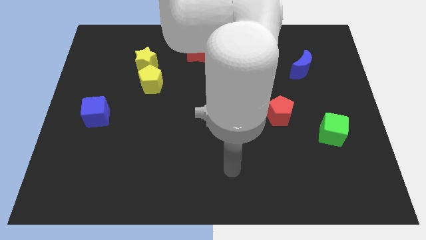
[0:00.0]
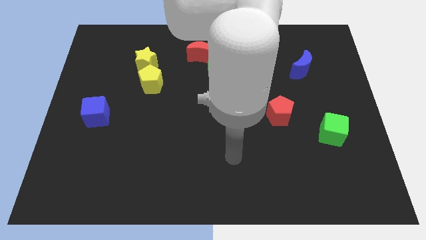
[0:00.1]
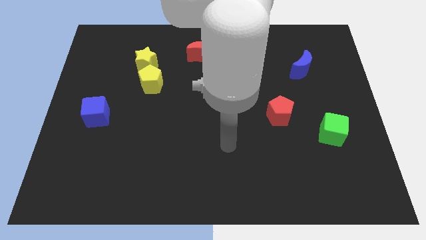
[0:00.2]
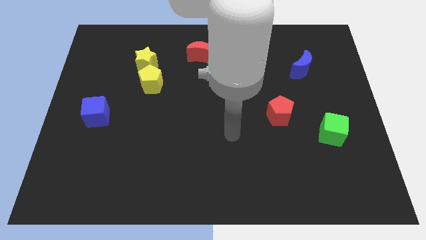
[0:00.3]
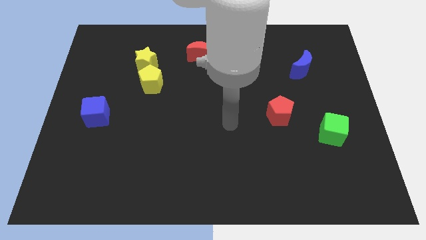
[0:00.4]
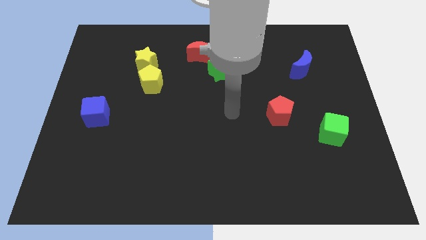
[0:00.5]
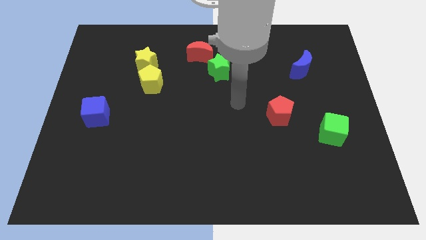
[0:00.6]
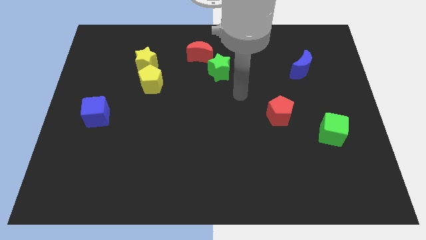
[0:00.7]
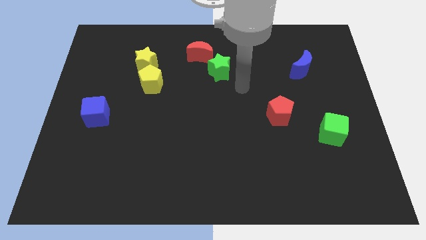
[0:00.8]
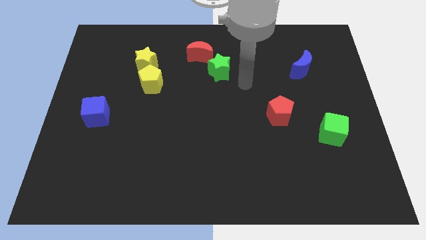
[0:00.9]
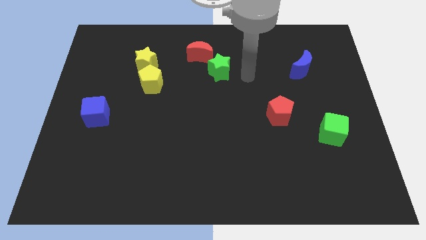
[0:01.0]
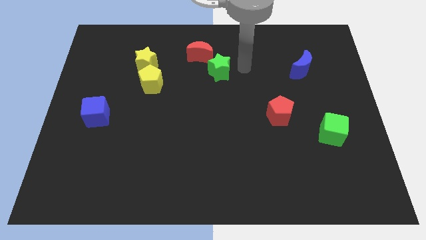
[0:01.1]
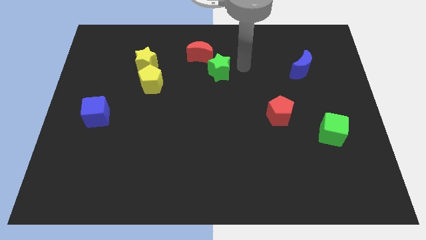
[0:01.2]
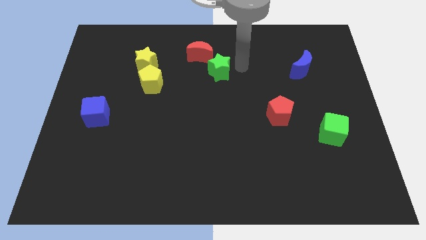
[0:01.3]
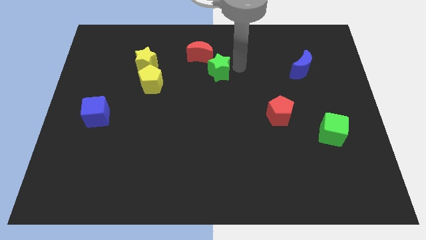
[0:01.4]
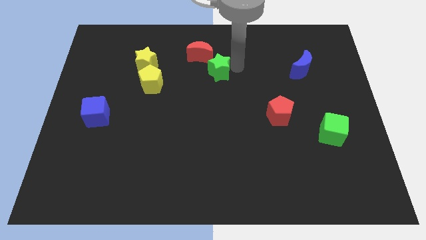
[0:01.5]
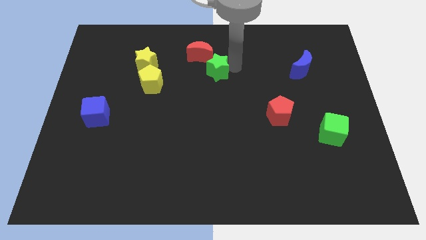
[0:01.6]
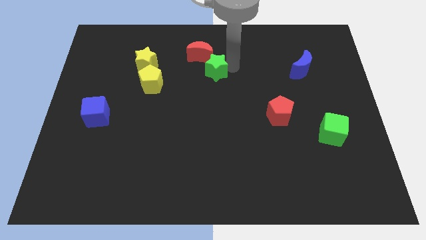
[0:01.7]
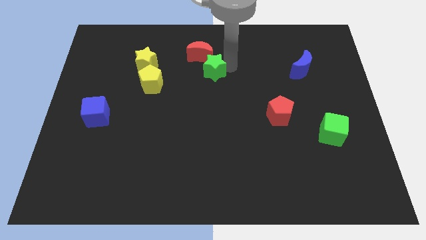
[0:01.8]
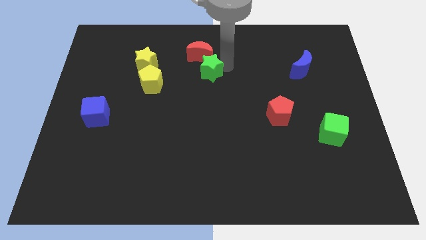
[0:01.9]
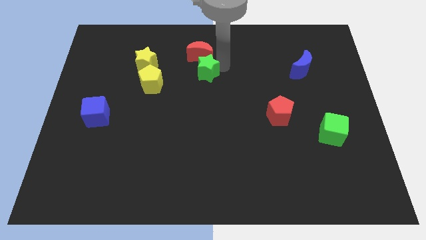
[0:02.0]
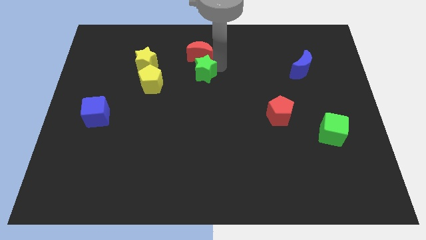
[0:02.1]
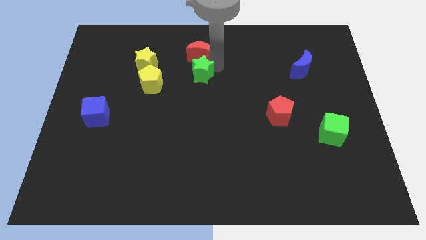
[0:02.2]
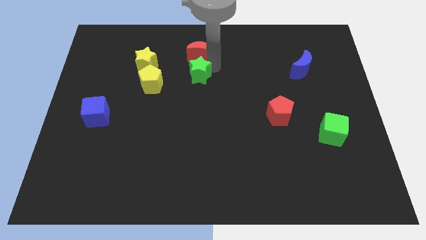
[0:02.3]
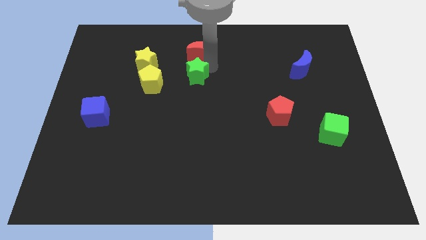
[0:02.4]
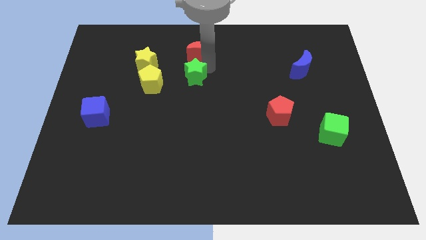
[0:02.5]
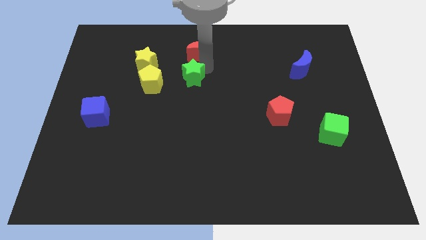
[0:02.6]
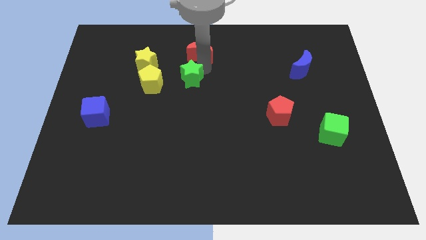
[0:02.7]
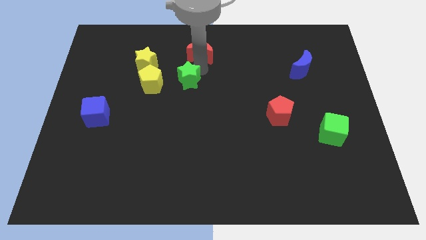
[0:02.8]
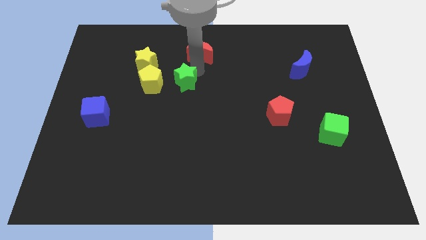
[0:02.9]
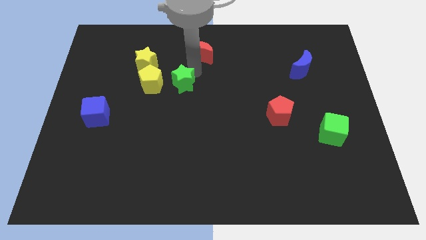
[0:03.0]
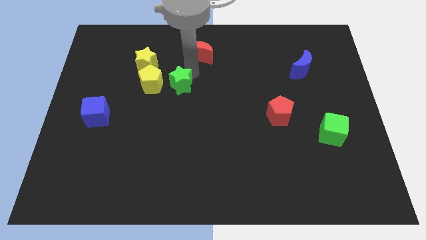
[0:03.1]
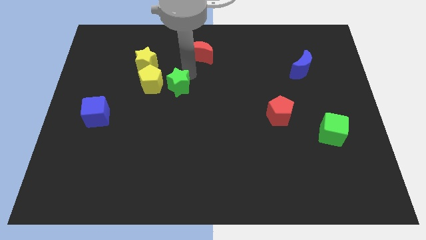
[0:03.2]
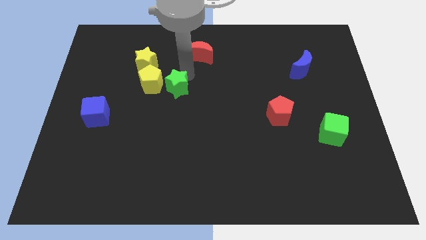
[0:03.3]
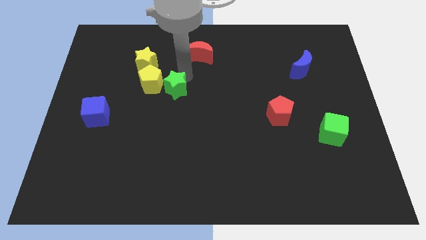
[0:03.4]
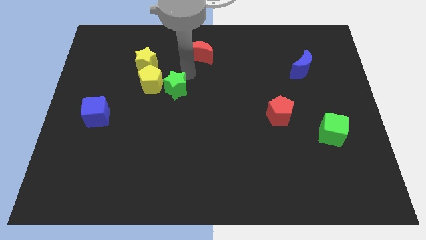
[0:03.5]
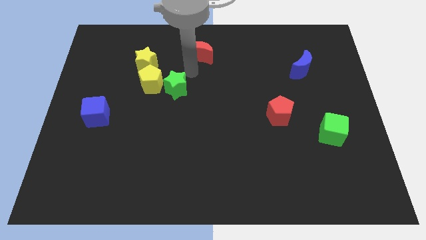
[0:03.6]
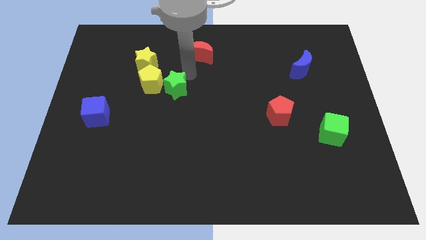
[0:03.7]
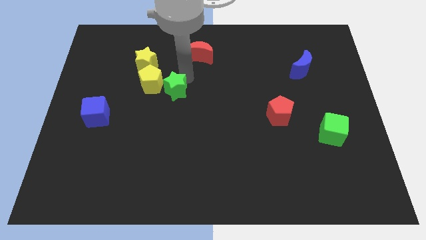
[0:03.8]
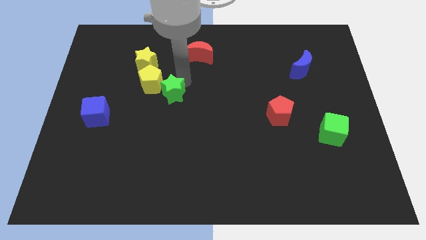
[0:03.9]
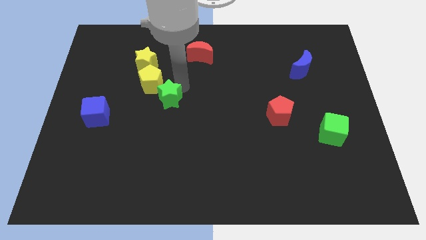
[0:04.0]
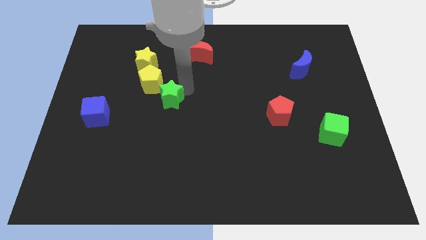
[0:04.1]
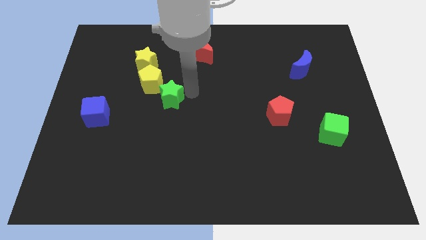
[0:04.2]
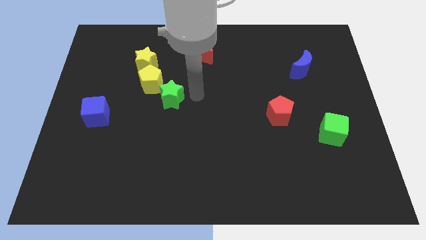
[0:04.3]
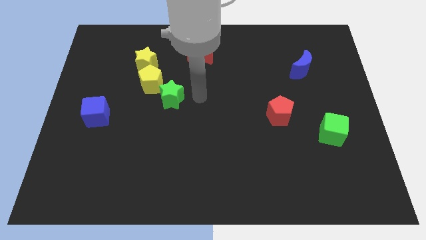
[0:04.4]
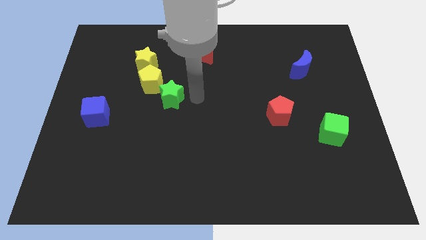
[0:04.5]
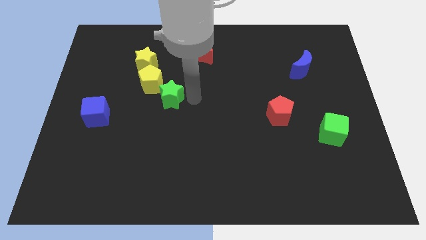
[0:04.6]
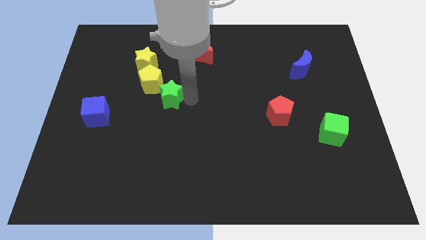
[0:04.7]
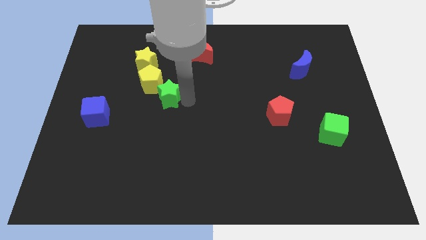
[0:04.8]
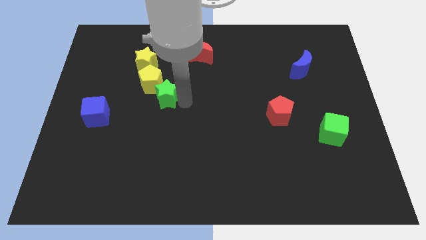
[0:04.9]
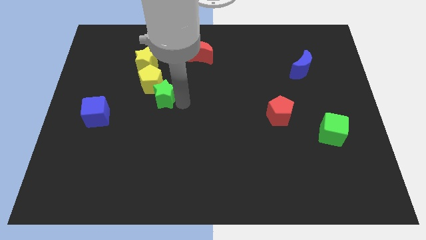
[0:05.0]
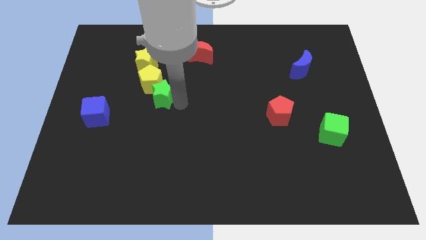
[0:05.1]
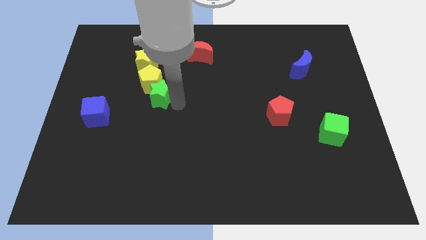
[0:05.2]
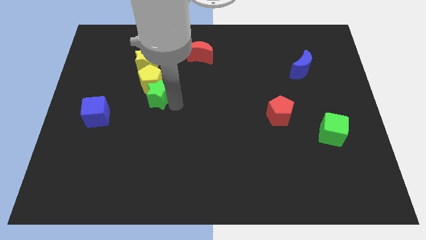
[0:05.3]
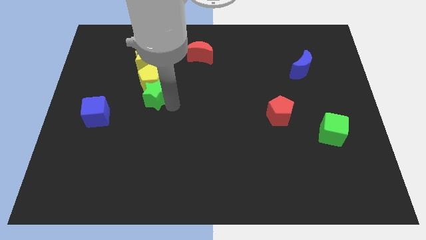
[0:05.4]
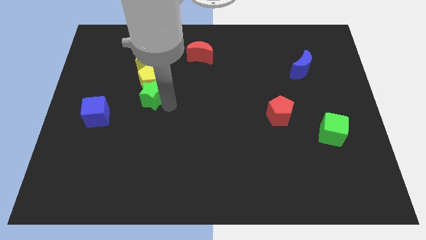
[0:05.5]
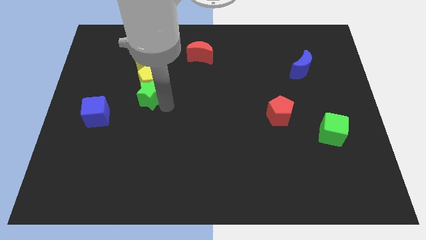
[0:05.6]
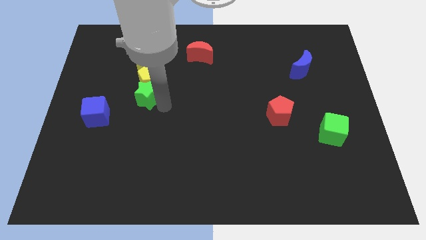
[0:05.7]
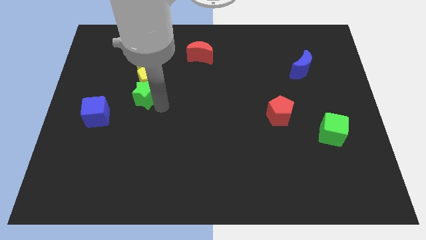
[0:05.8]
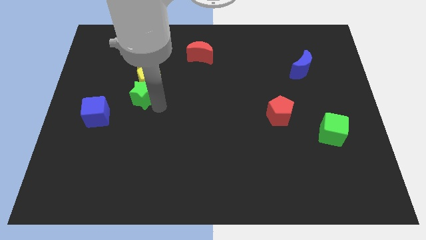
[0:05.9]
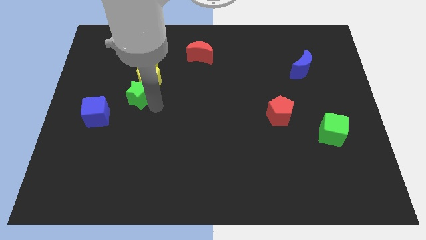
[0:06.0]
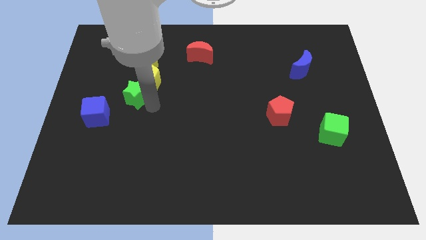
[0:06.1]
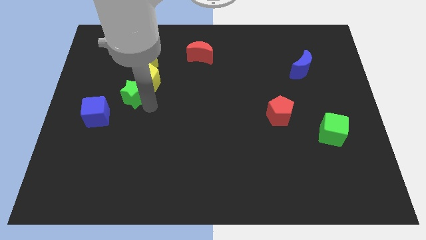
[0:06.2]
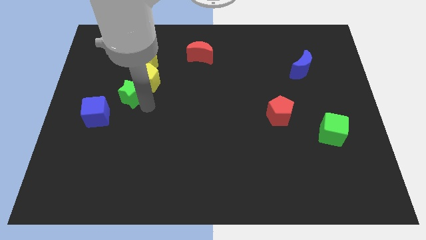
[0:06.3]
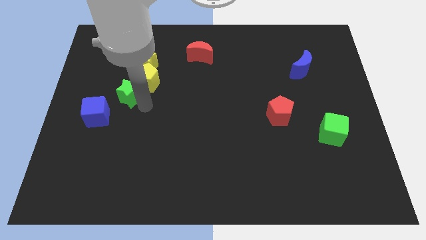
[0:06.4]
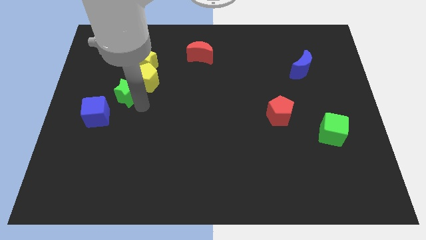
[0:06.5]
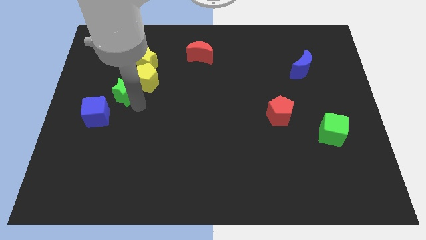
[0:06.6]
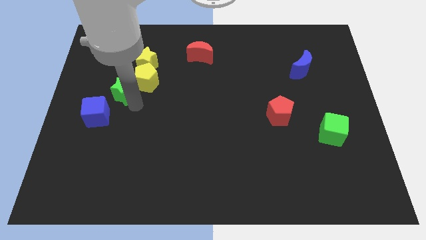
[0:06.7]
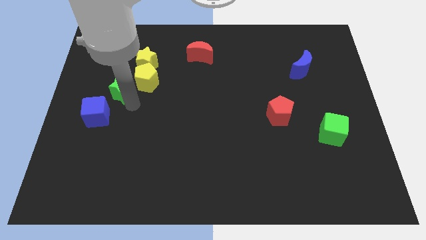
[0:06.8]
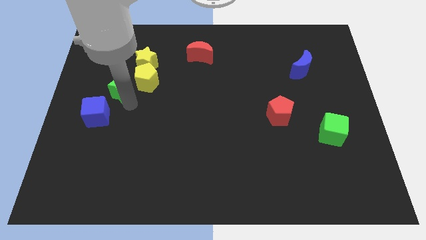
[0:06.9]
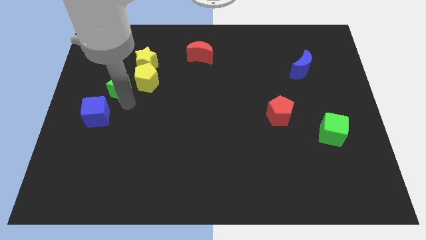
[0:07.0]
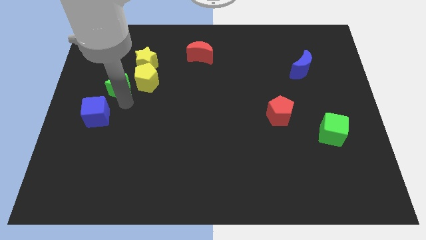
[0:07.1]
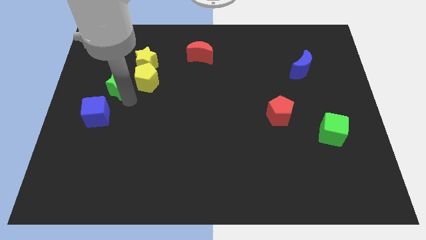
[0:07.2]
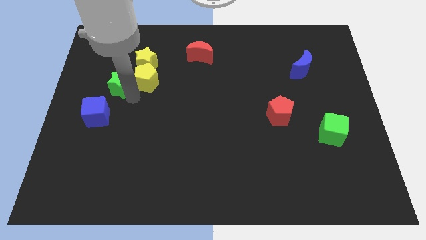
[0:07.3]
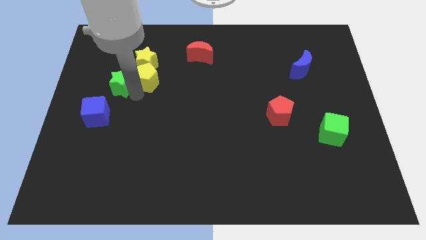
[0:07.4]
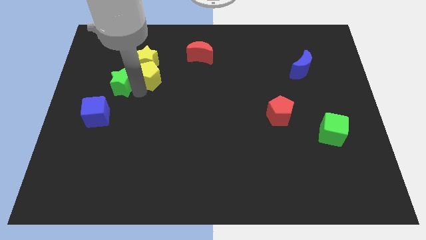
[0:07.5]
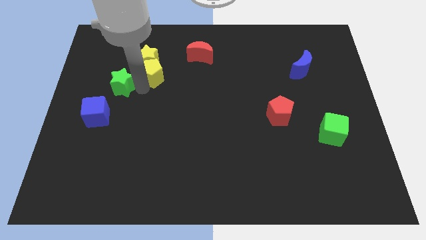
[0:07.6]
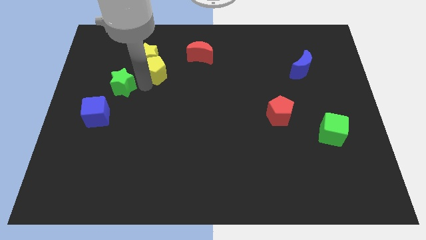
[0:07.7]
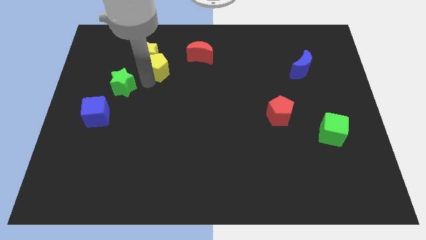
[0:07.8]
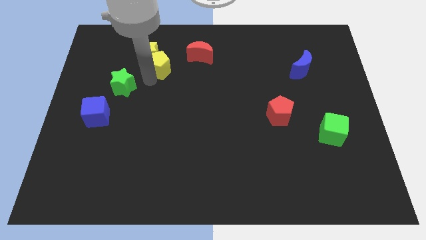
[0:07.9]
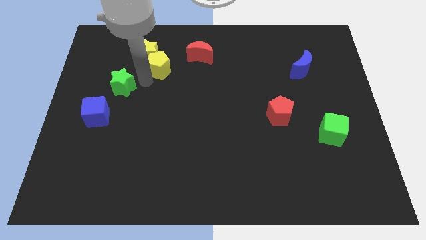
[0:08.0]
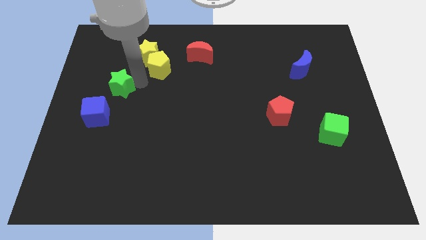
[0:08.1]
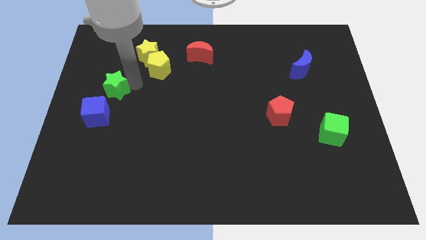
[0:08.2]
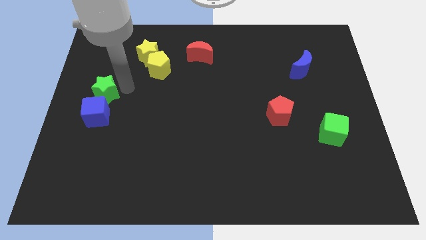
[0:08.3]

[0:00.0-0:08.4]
put the green star to the left side of the board
